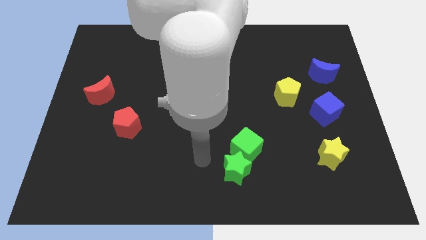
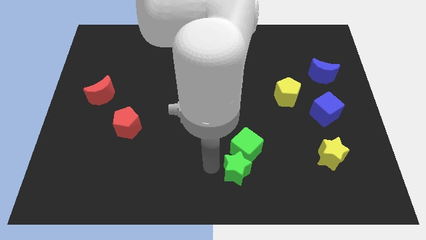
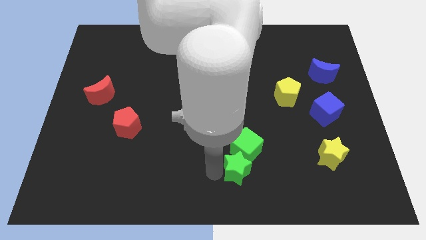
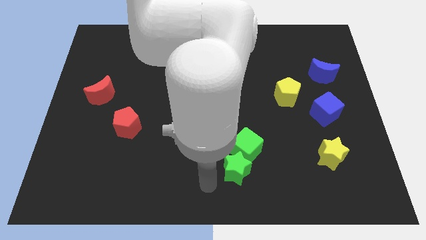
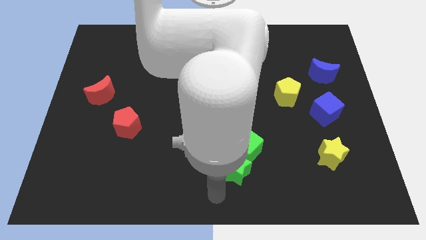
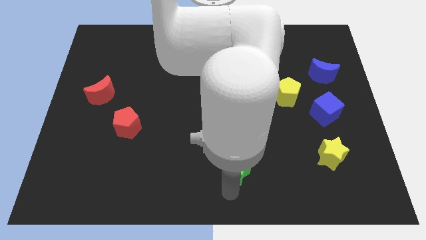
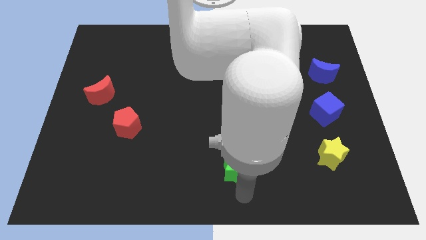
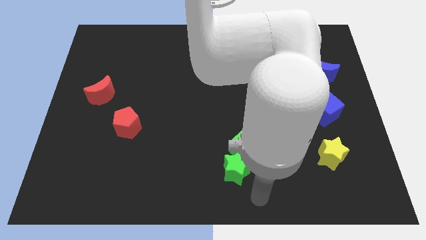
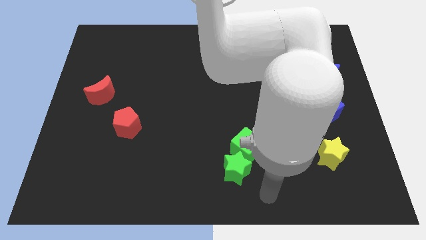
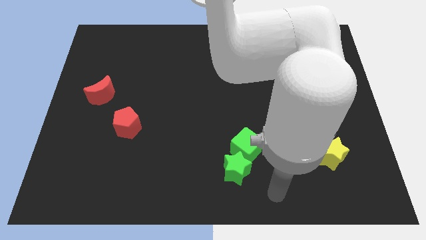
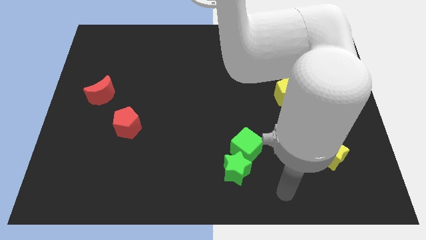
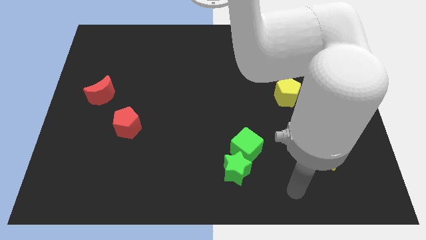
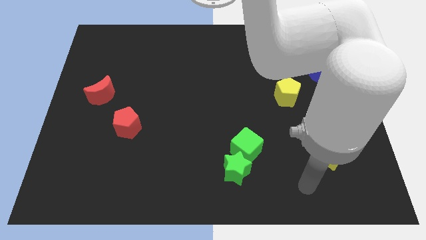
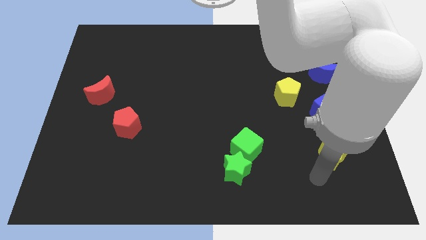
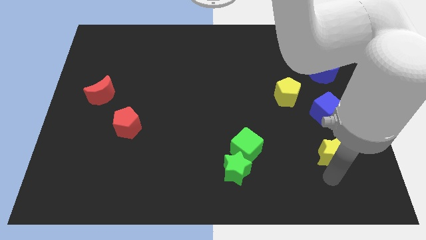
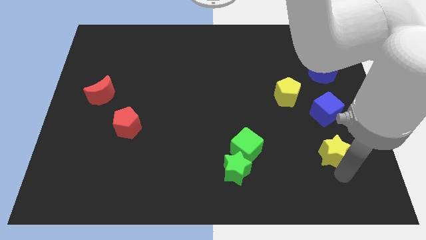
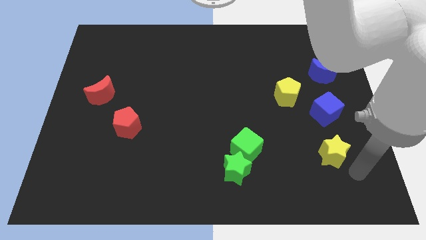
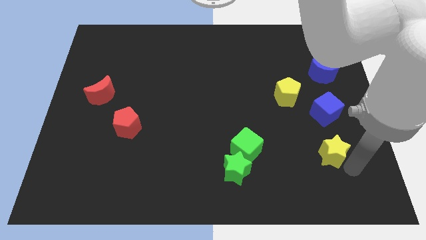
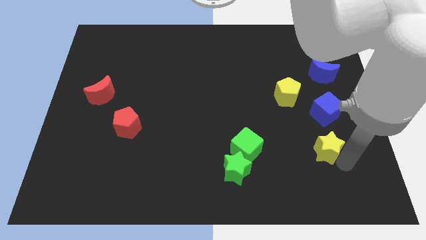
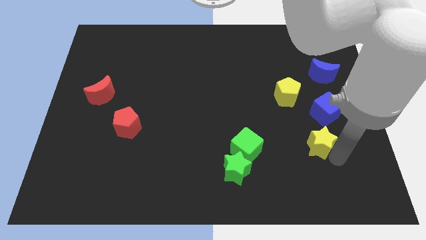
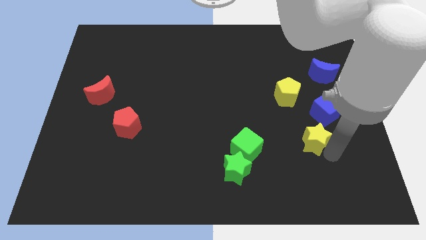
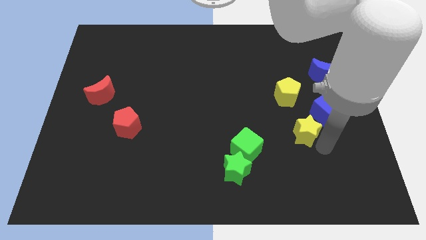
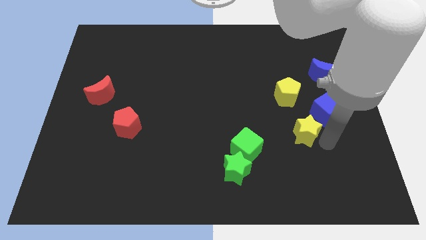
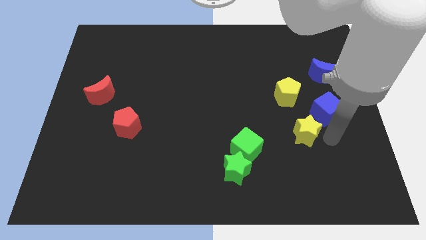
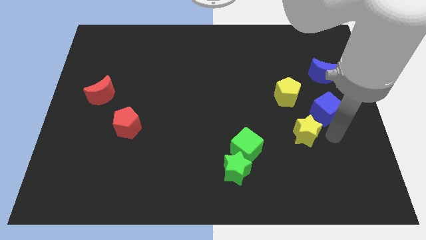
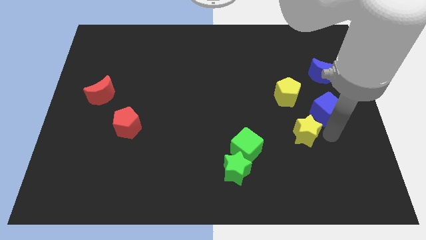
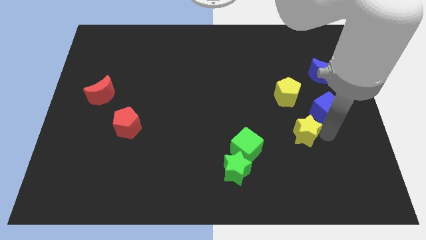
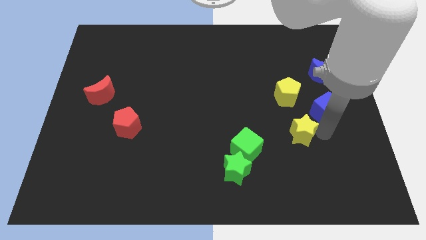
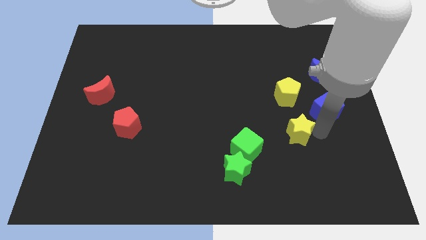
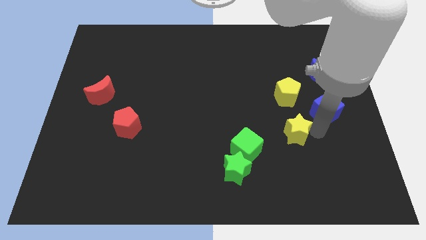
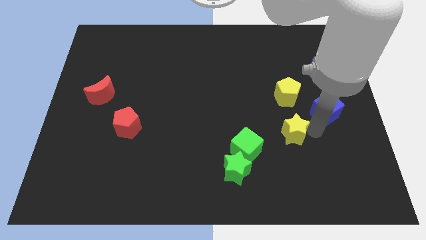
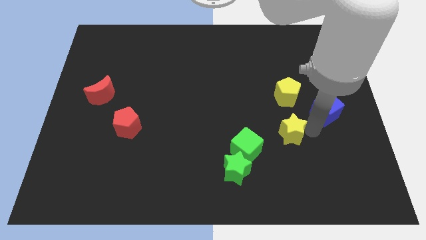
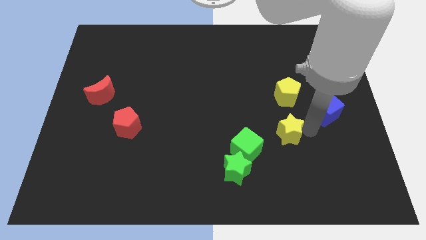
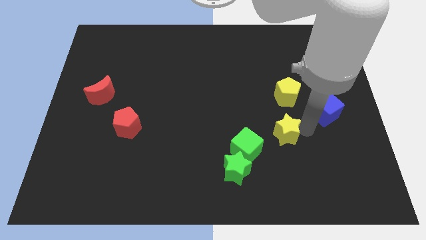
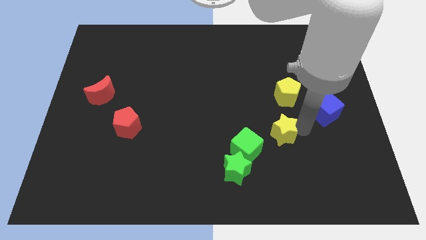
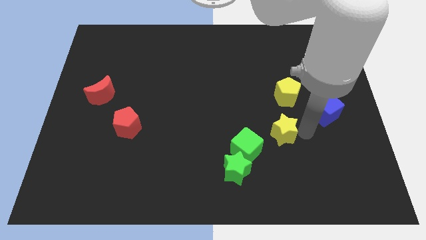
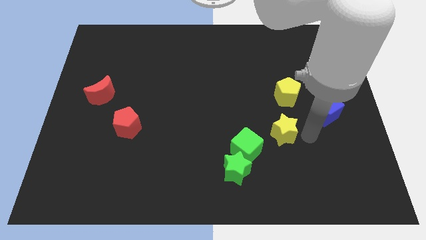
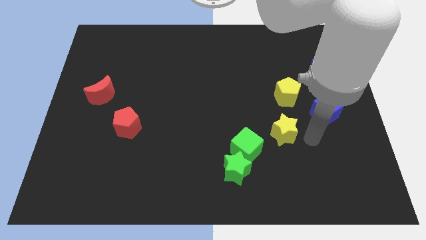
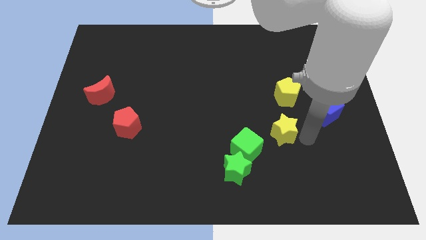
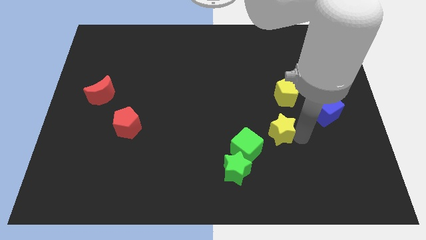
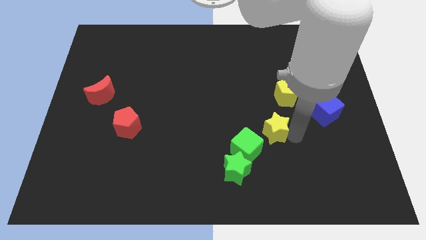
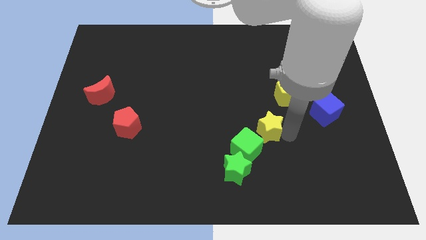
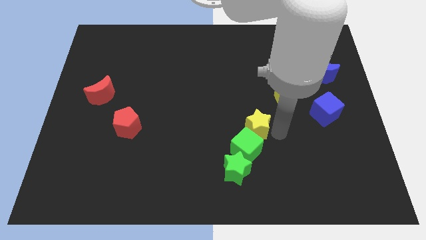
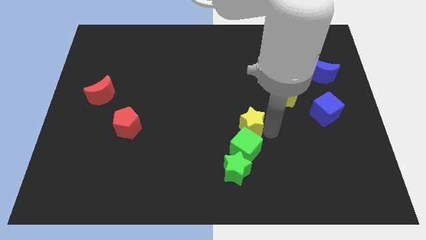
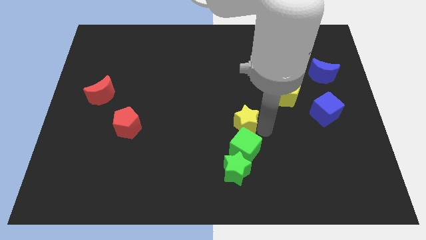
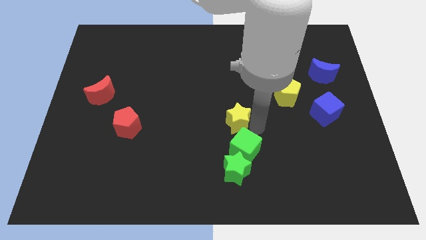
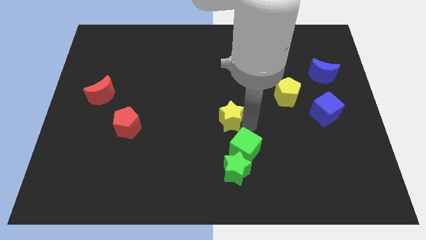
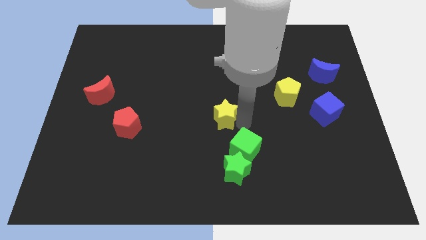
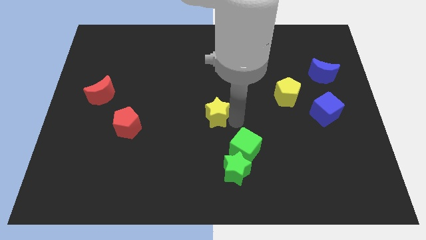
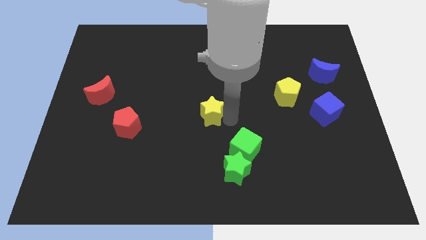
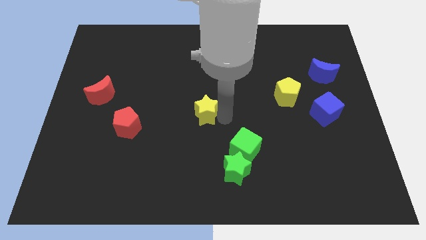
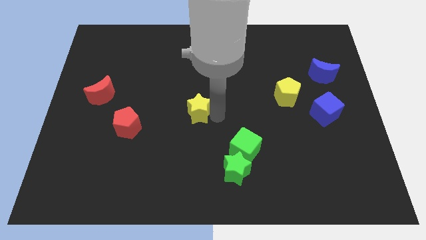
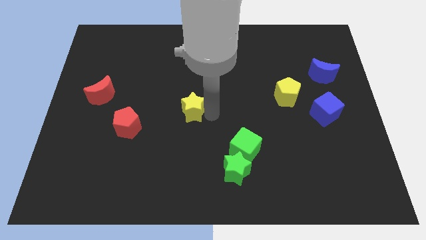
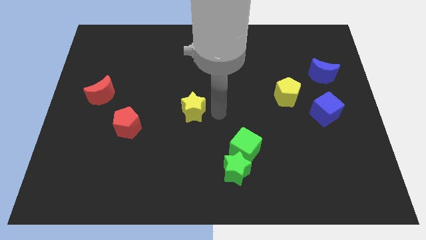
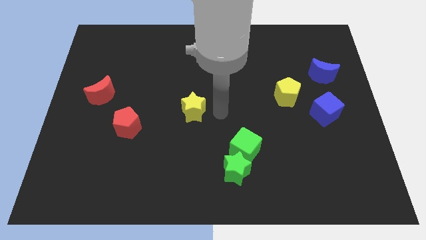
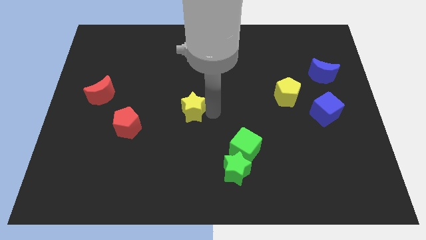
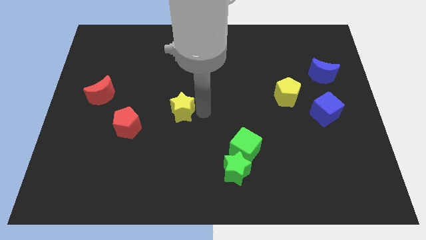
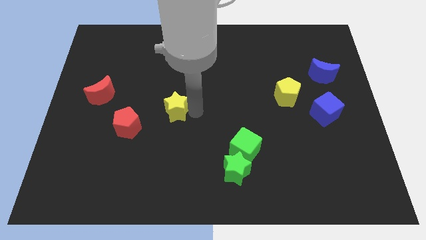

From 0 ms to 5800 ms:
push the yellow star to the top right side of the red pentagon

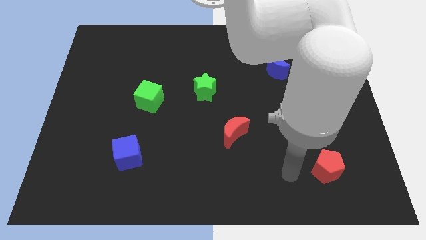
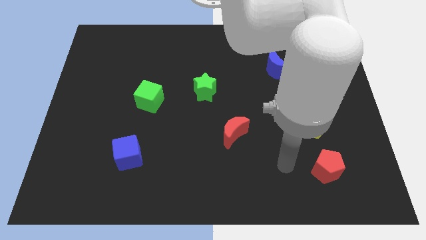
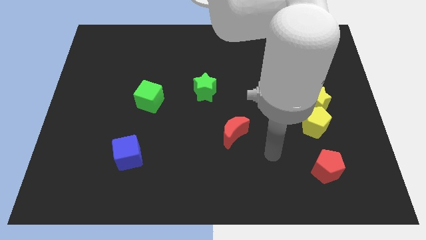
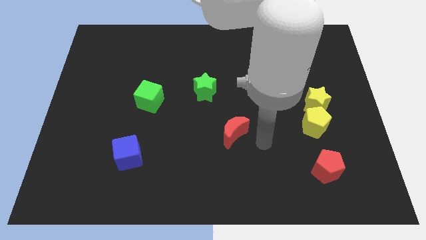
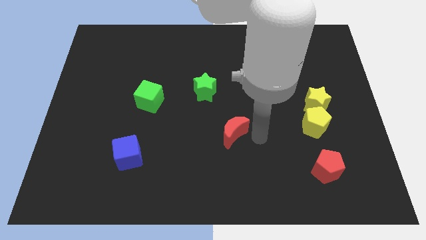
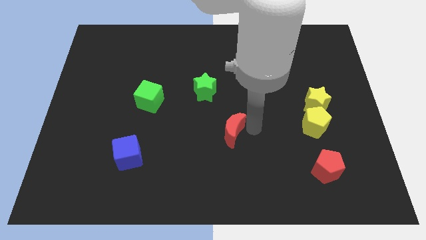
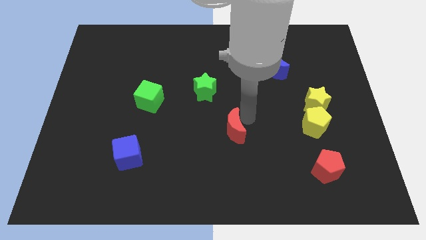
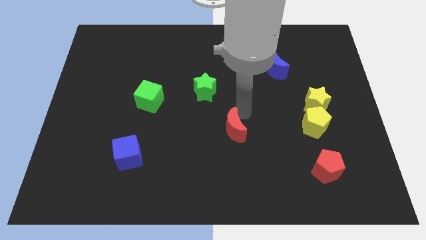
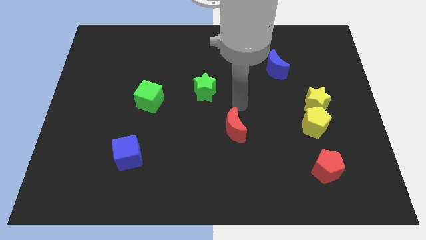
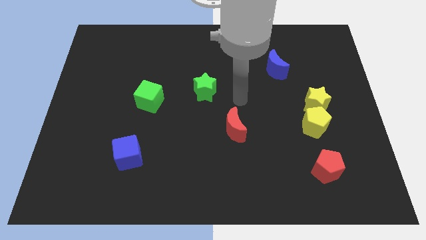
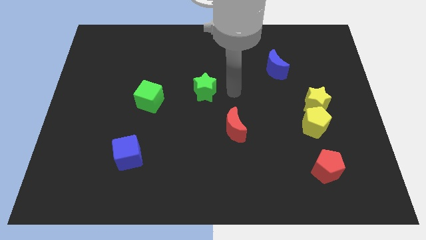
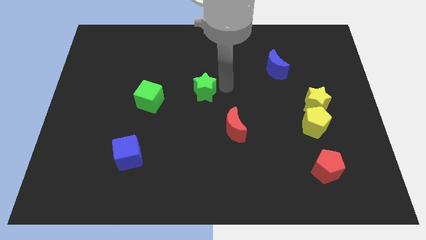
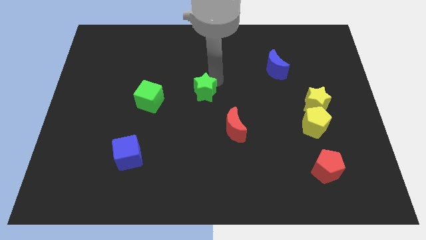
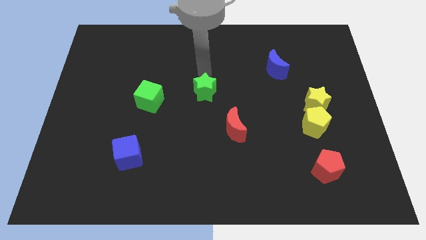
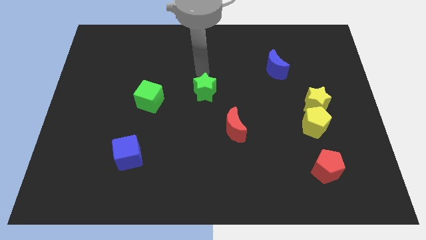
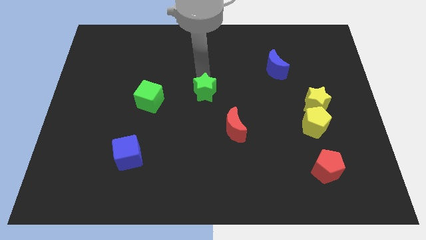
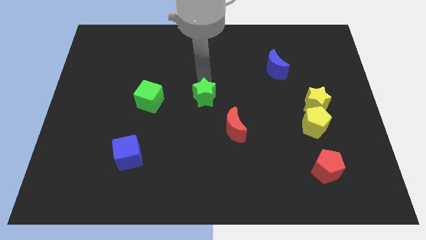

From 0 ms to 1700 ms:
slide the green star diagonally up and to the left of the red moon
